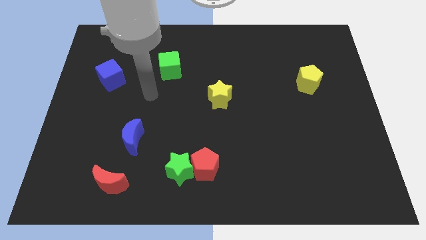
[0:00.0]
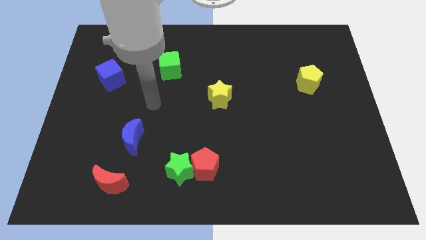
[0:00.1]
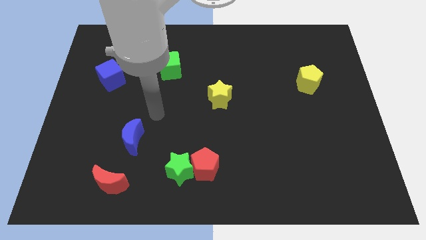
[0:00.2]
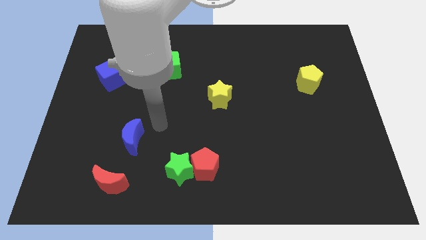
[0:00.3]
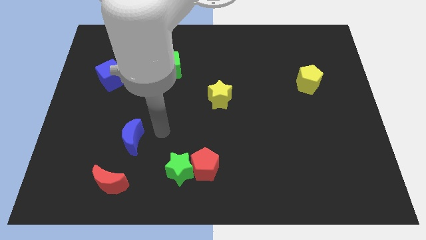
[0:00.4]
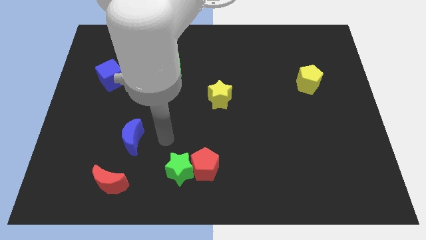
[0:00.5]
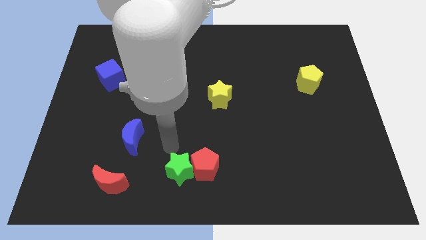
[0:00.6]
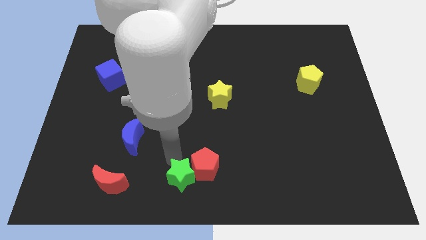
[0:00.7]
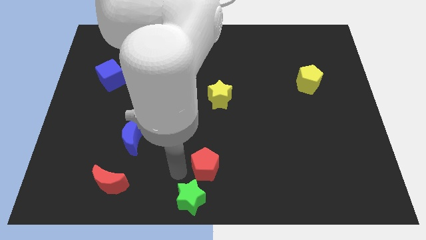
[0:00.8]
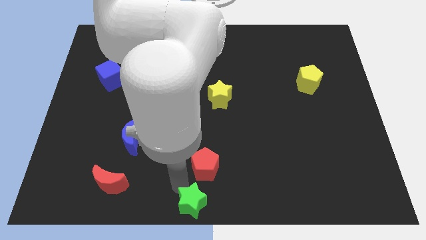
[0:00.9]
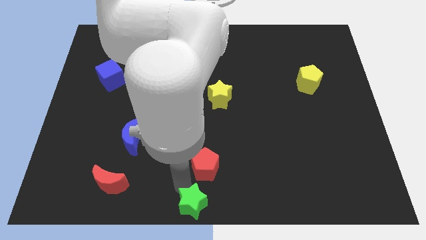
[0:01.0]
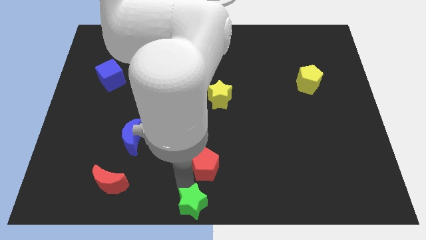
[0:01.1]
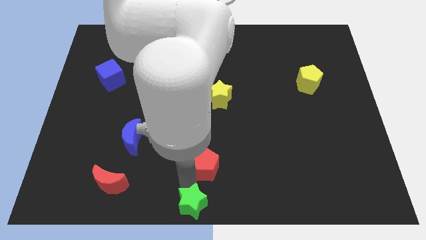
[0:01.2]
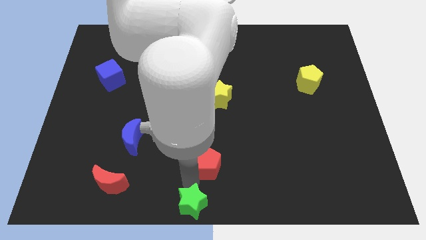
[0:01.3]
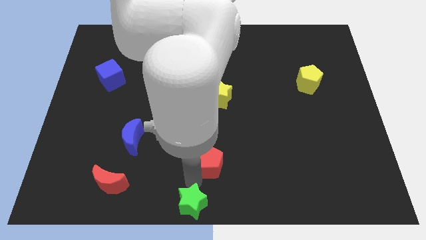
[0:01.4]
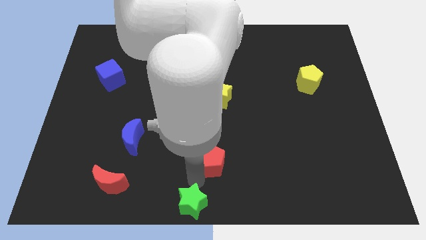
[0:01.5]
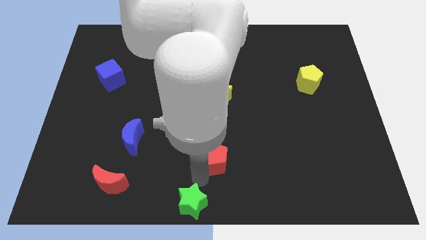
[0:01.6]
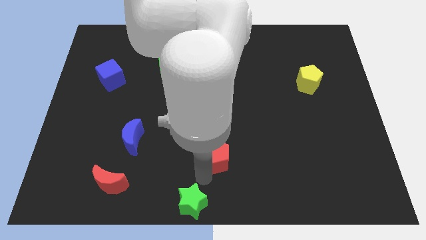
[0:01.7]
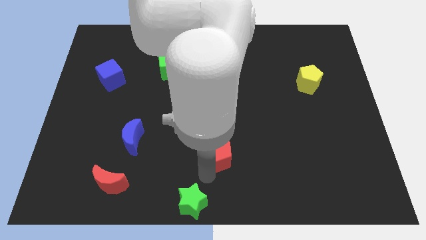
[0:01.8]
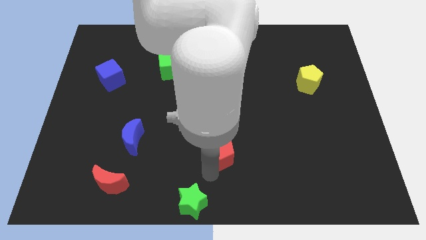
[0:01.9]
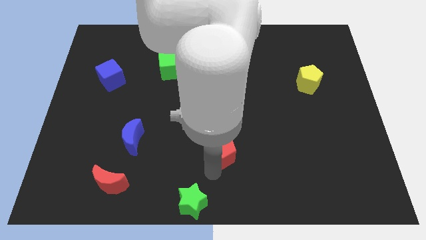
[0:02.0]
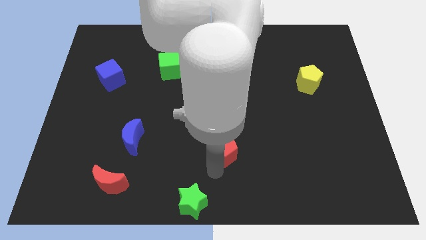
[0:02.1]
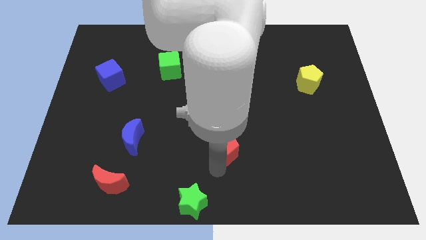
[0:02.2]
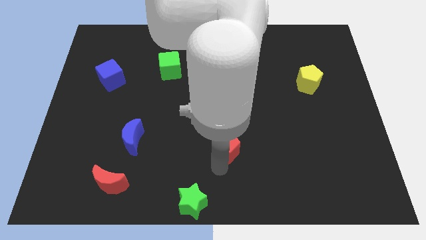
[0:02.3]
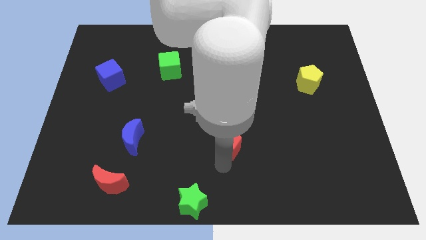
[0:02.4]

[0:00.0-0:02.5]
slightly push the red pentagon upwards and to the right

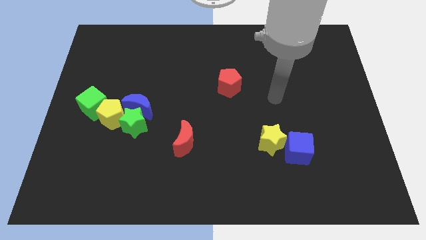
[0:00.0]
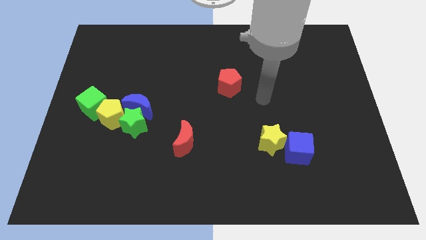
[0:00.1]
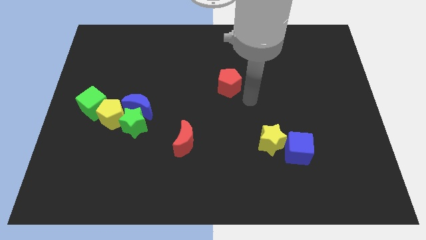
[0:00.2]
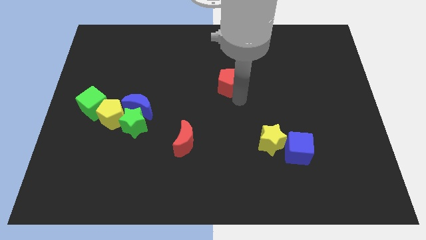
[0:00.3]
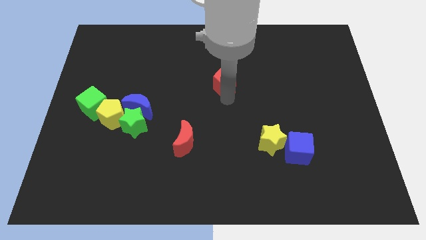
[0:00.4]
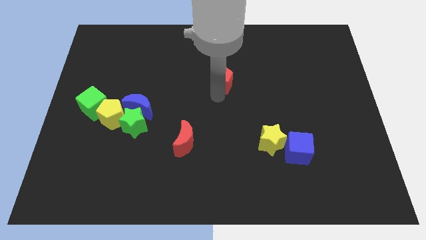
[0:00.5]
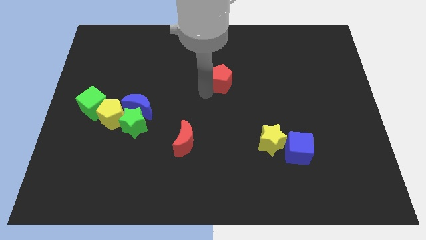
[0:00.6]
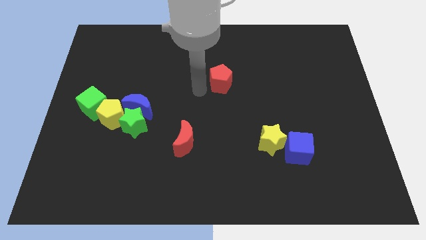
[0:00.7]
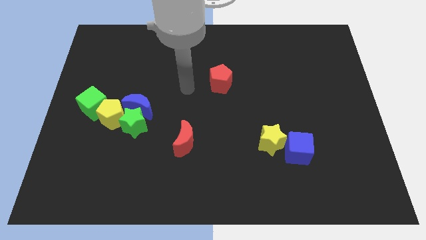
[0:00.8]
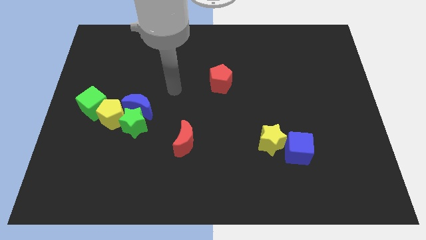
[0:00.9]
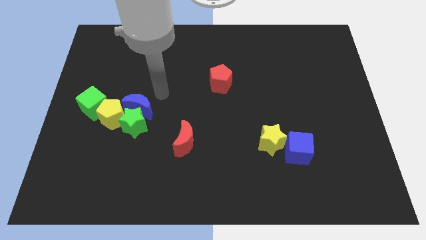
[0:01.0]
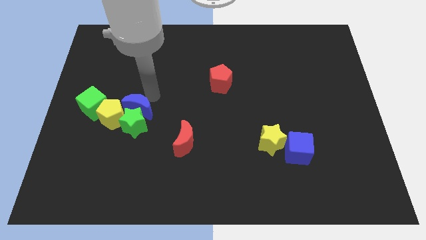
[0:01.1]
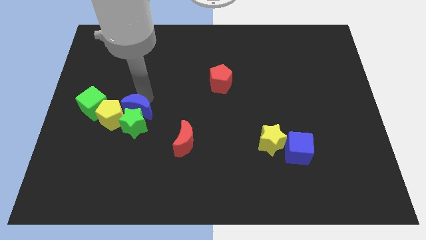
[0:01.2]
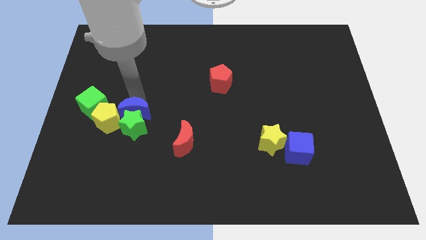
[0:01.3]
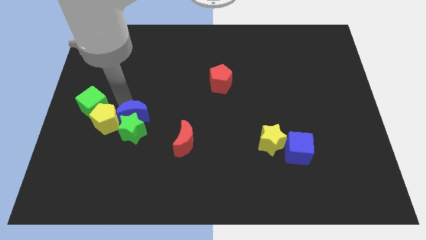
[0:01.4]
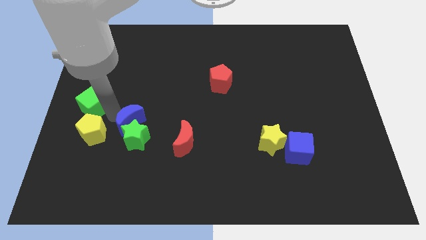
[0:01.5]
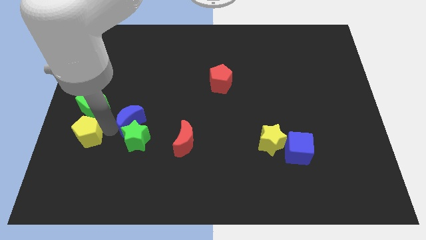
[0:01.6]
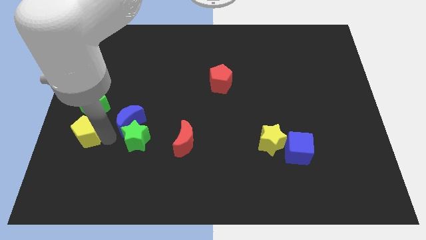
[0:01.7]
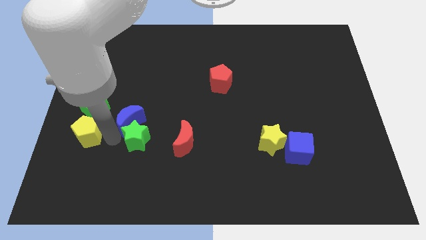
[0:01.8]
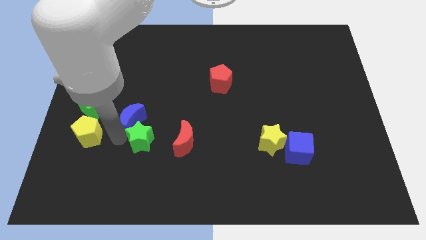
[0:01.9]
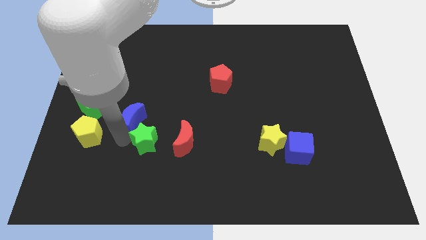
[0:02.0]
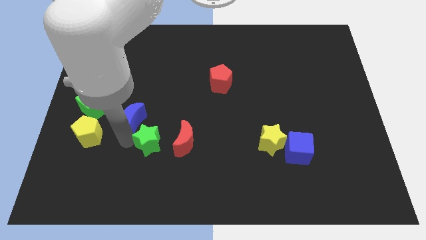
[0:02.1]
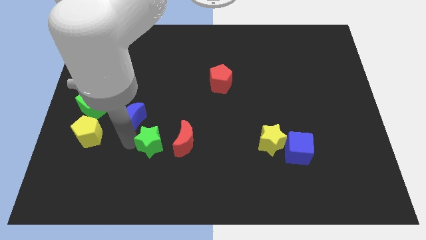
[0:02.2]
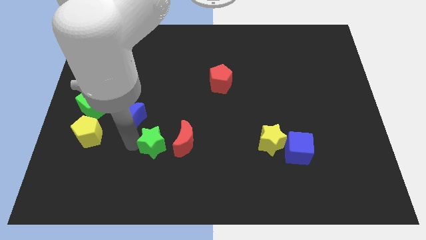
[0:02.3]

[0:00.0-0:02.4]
slide the green star somewhat downwards and then right

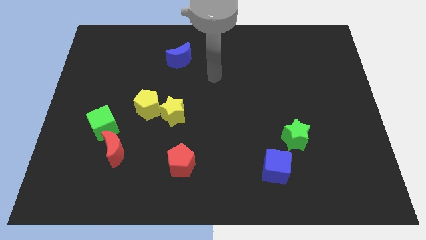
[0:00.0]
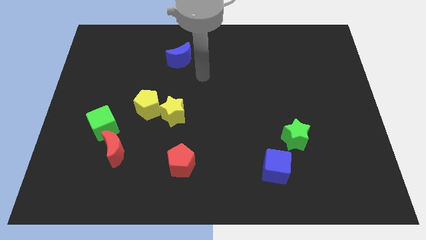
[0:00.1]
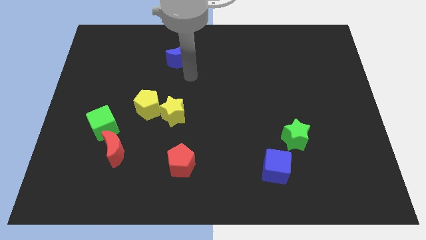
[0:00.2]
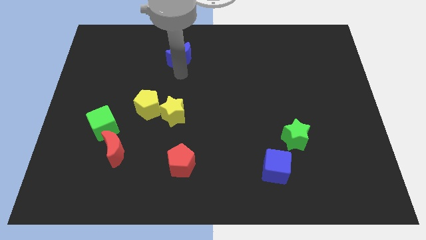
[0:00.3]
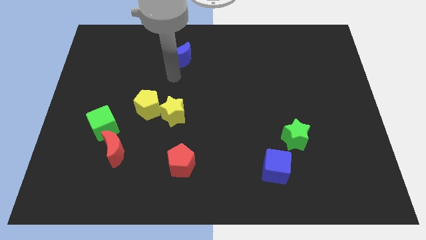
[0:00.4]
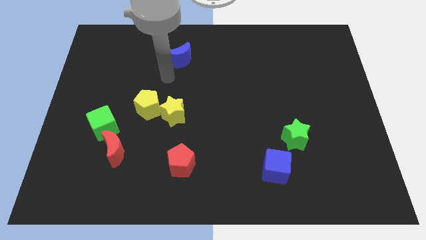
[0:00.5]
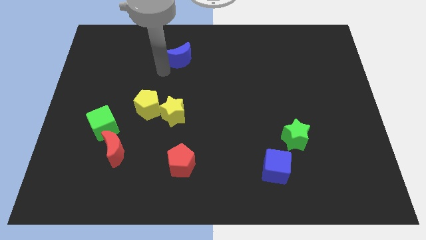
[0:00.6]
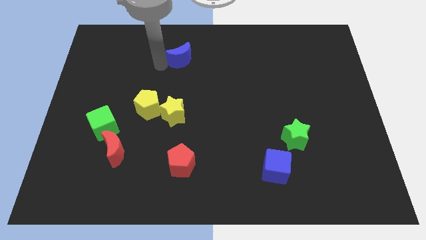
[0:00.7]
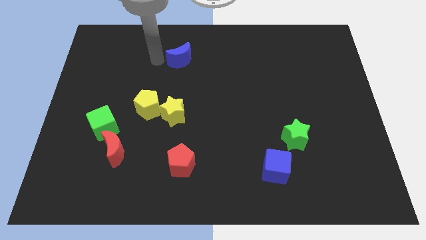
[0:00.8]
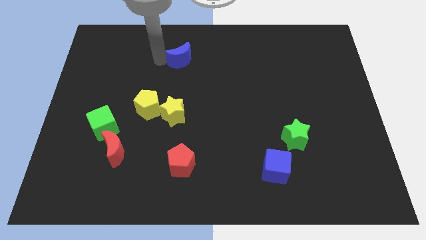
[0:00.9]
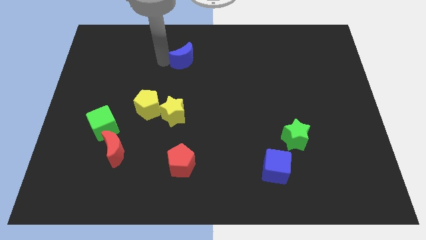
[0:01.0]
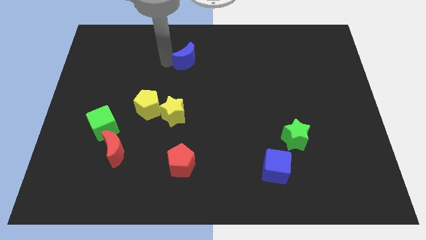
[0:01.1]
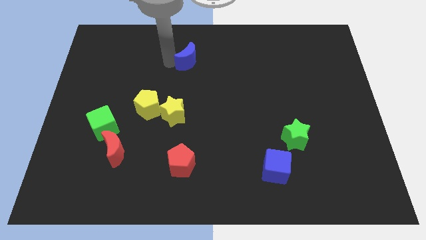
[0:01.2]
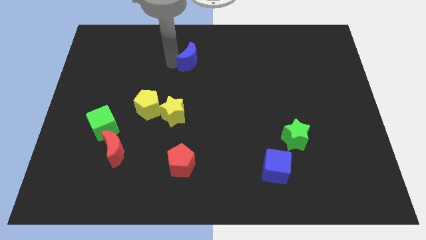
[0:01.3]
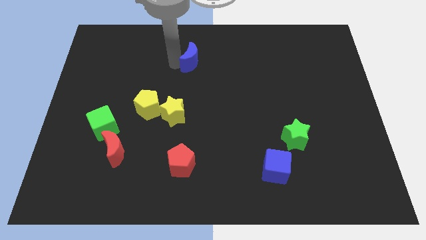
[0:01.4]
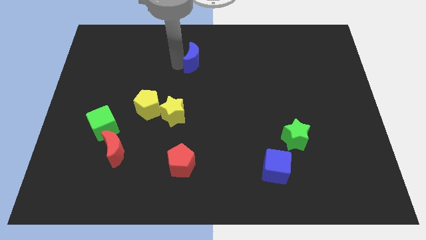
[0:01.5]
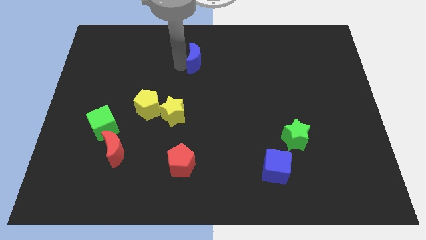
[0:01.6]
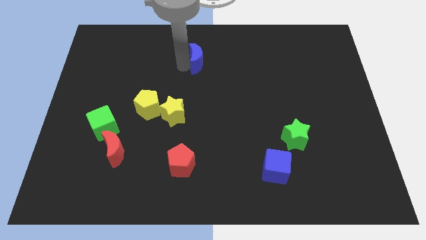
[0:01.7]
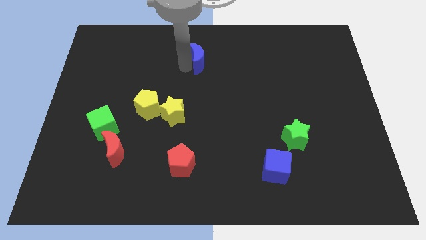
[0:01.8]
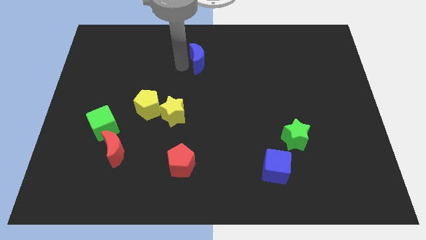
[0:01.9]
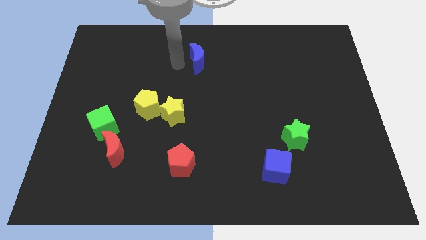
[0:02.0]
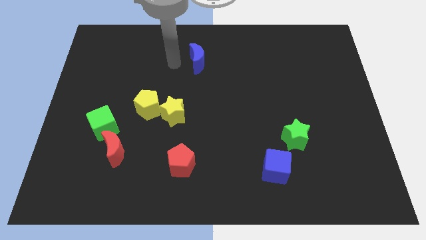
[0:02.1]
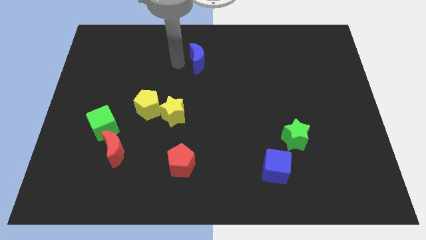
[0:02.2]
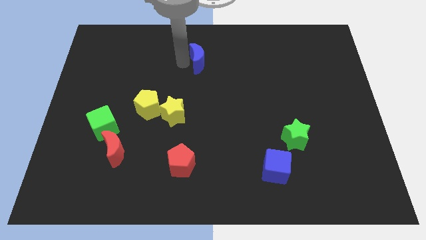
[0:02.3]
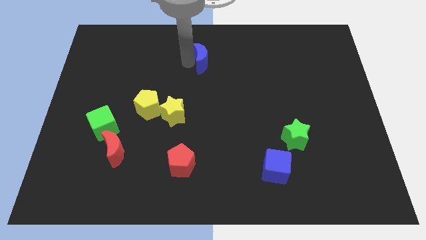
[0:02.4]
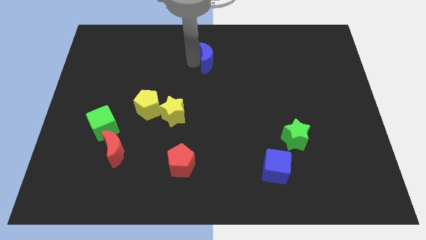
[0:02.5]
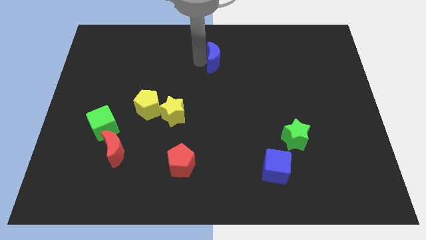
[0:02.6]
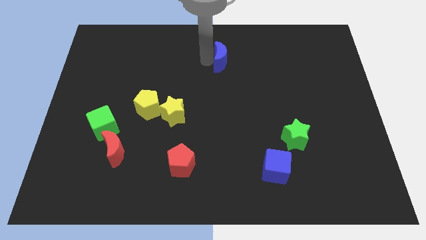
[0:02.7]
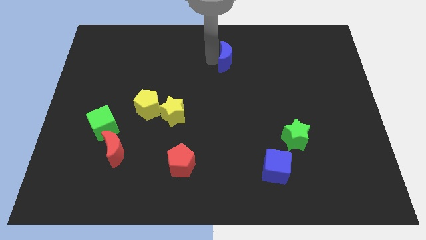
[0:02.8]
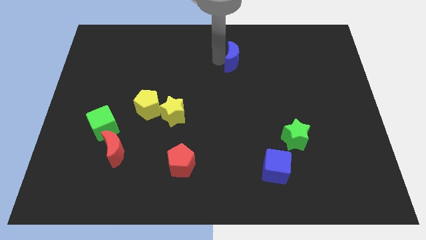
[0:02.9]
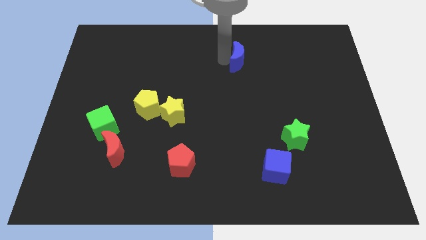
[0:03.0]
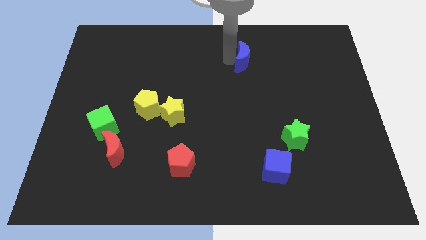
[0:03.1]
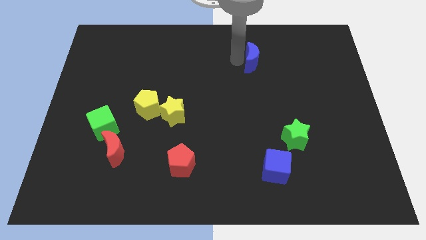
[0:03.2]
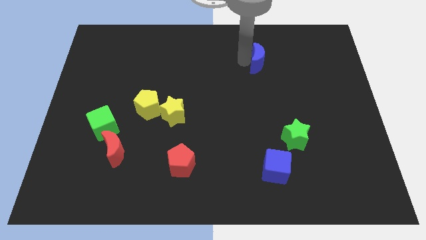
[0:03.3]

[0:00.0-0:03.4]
push the blue moon right

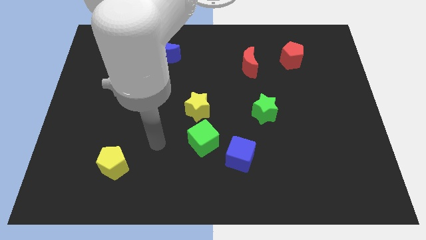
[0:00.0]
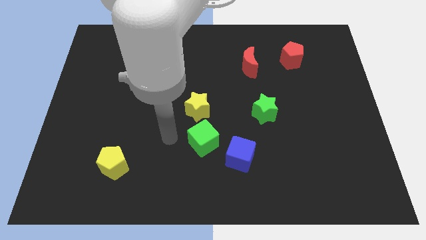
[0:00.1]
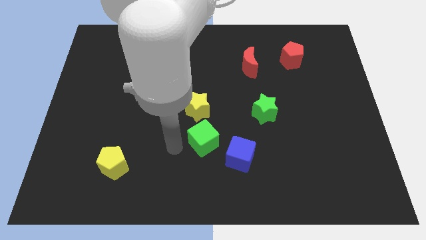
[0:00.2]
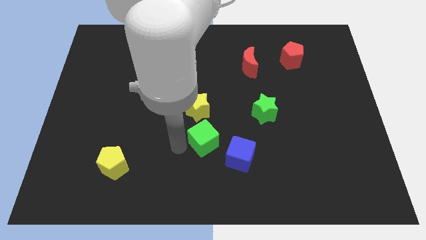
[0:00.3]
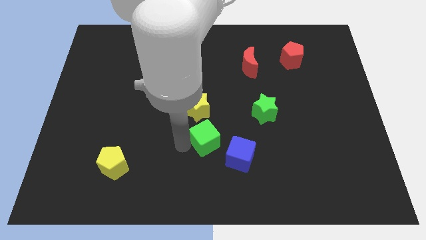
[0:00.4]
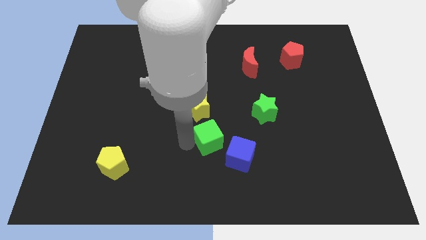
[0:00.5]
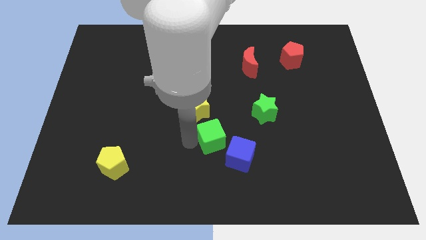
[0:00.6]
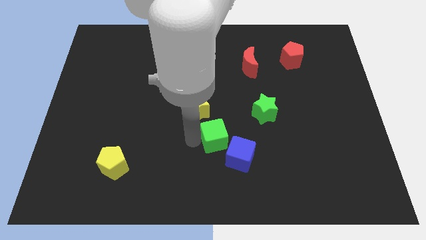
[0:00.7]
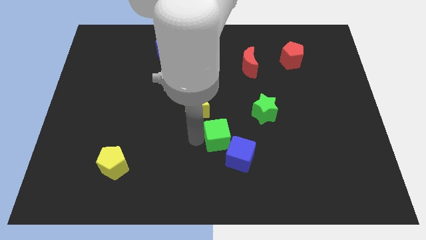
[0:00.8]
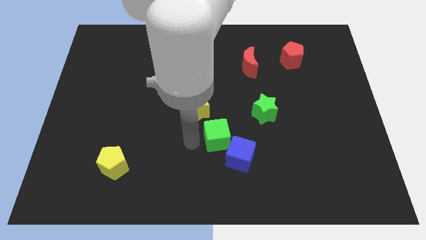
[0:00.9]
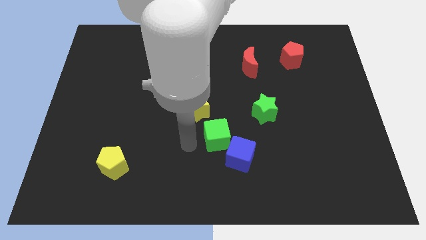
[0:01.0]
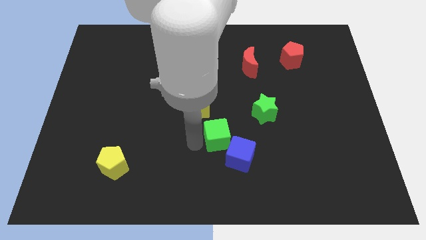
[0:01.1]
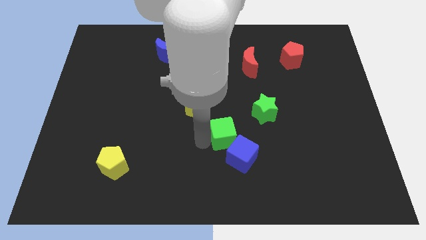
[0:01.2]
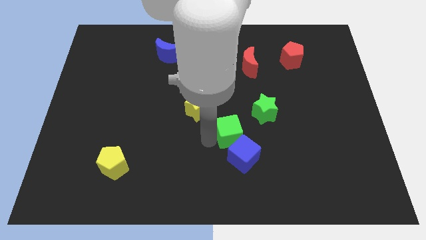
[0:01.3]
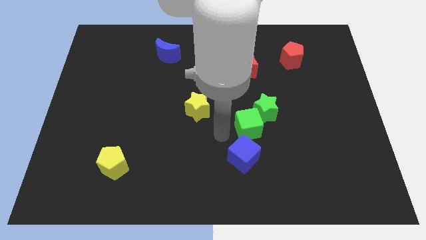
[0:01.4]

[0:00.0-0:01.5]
push the green cube somewhat right
